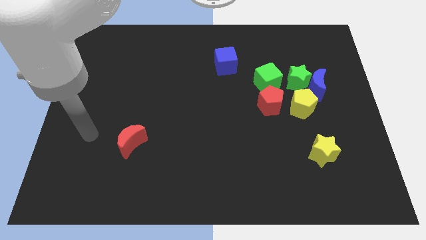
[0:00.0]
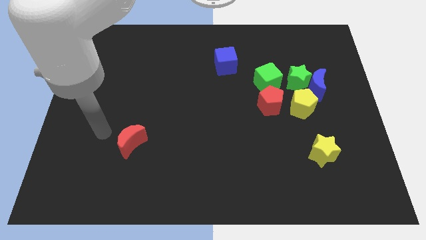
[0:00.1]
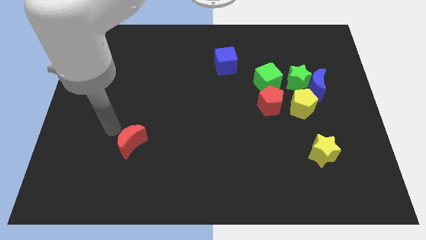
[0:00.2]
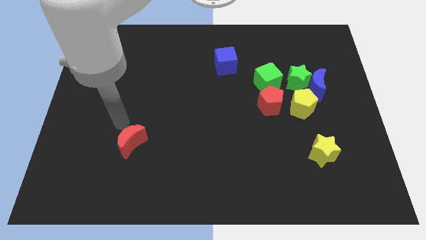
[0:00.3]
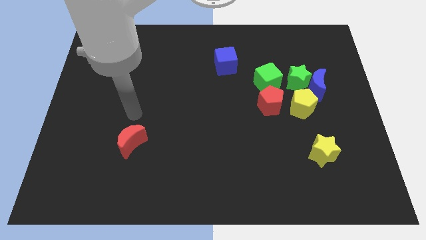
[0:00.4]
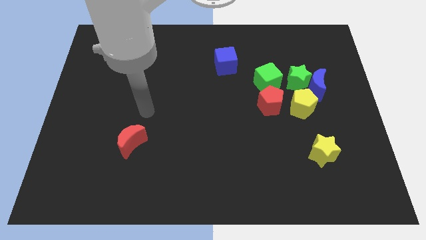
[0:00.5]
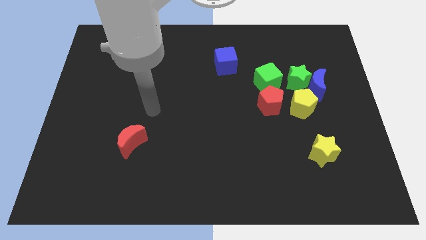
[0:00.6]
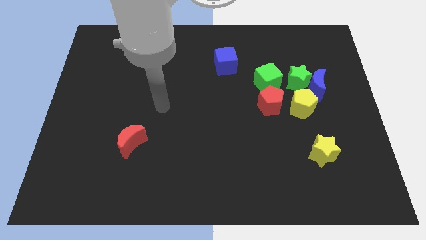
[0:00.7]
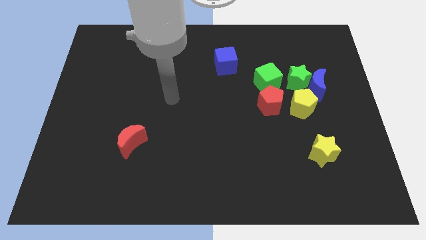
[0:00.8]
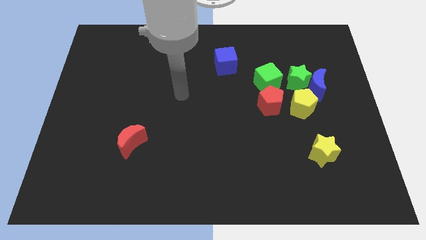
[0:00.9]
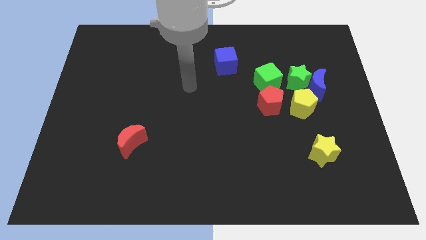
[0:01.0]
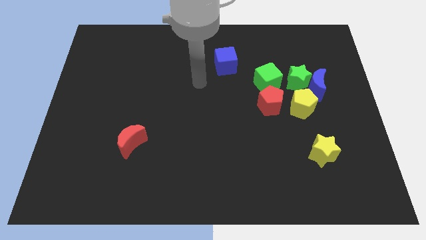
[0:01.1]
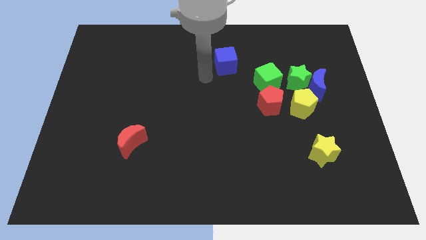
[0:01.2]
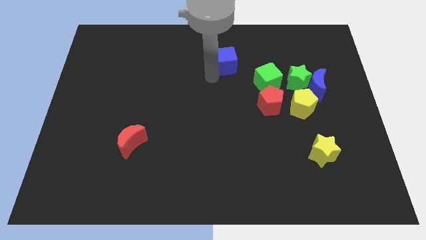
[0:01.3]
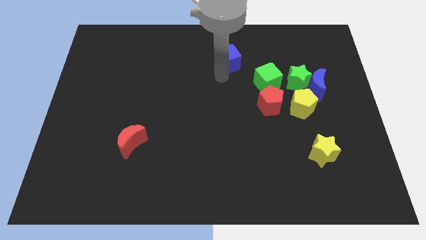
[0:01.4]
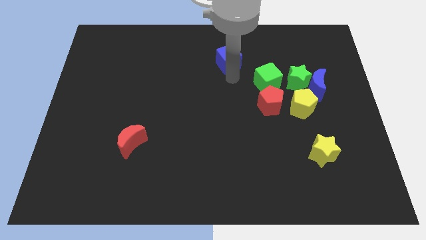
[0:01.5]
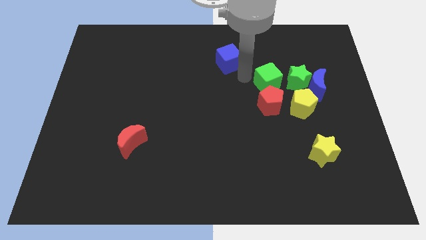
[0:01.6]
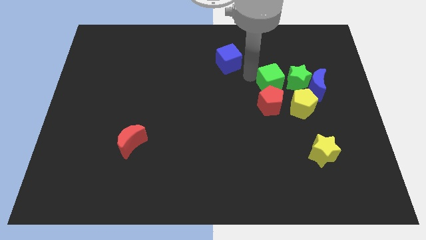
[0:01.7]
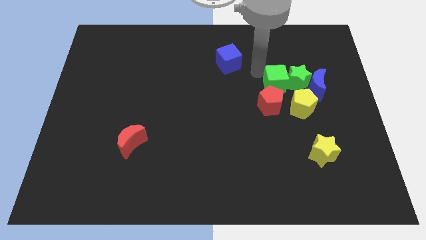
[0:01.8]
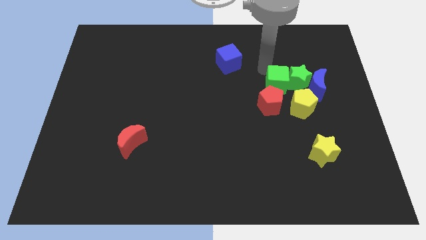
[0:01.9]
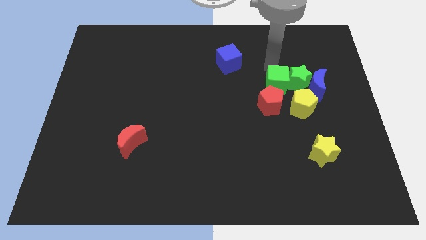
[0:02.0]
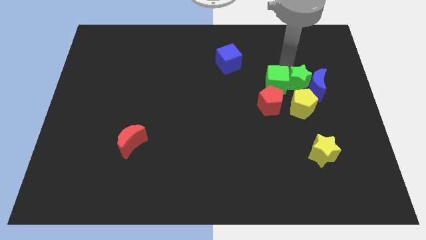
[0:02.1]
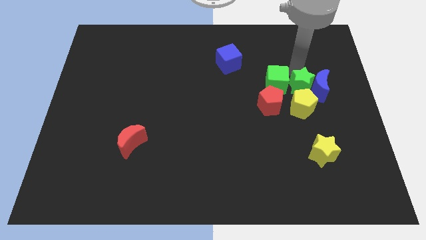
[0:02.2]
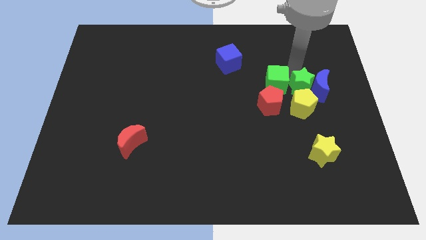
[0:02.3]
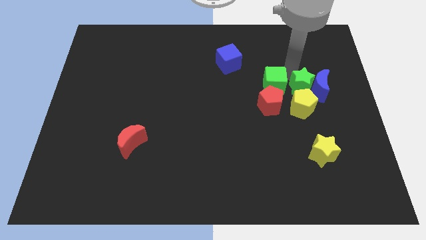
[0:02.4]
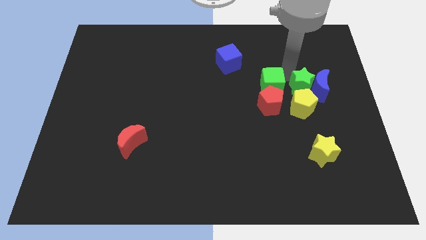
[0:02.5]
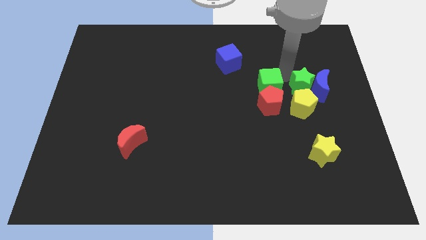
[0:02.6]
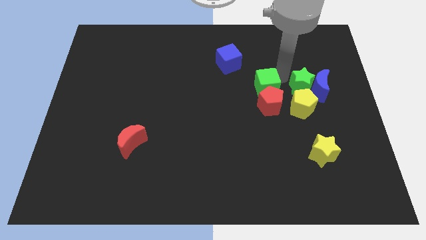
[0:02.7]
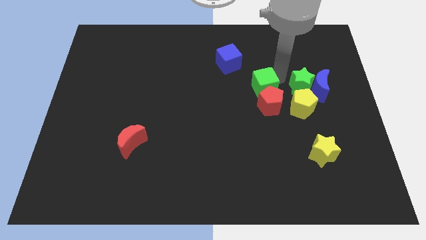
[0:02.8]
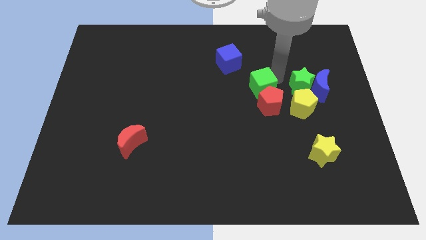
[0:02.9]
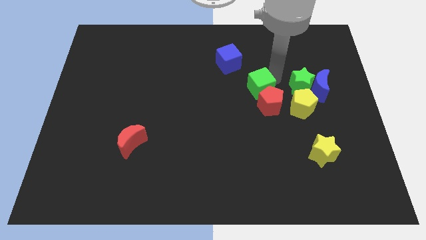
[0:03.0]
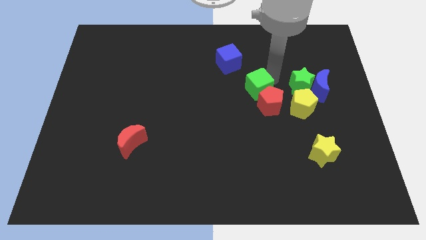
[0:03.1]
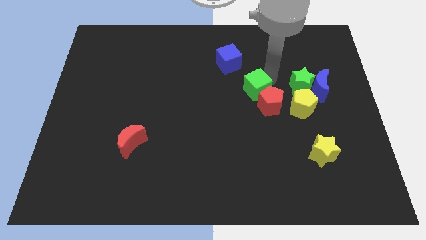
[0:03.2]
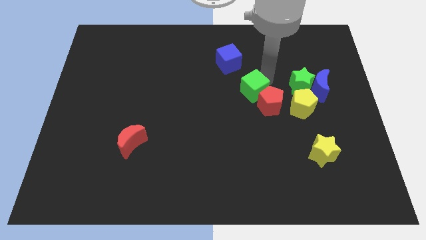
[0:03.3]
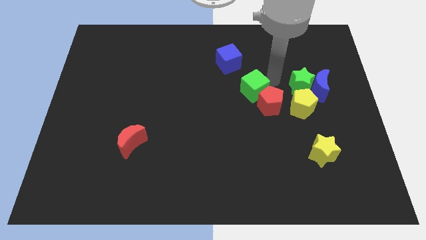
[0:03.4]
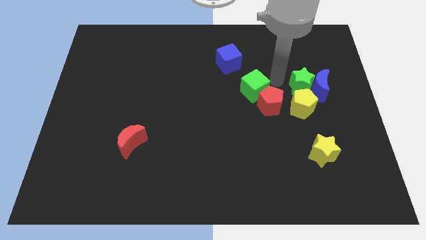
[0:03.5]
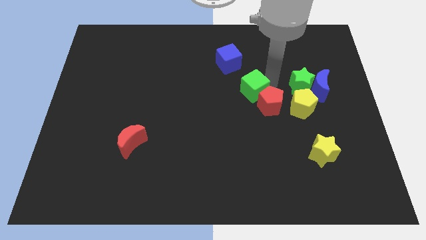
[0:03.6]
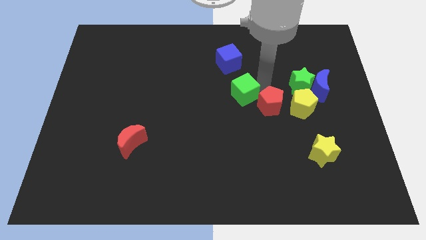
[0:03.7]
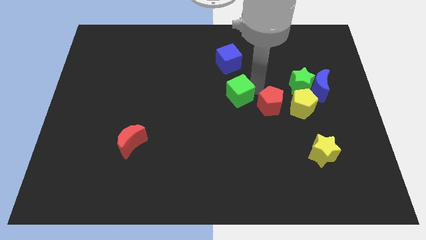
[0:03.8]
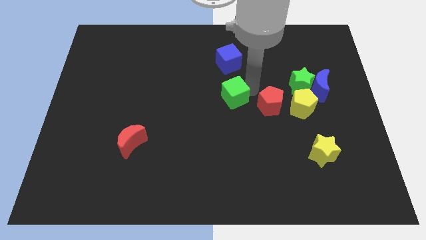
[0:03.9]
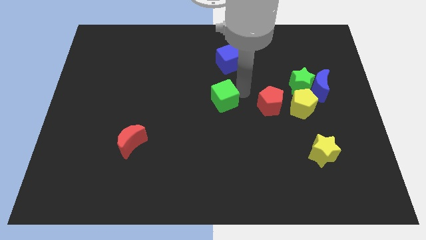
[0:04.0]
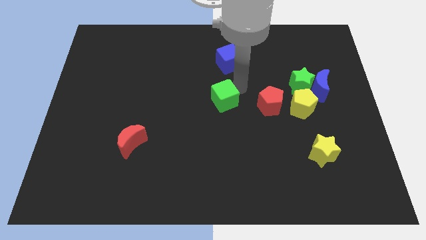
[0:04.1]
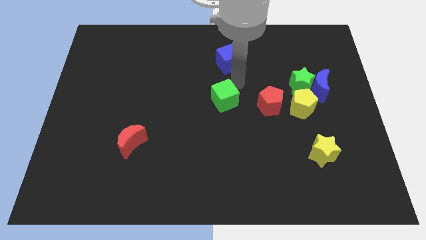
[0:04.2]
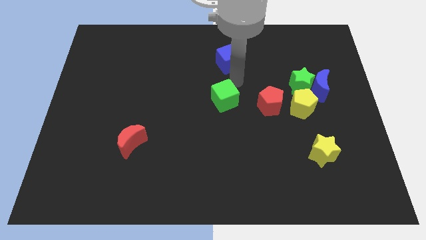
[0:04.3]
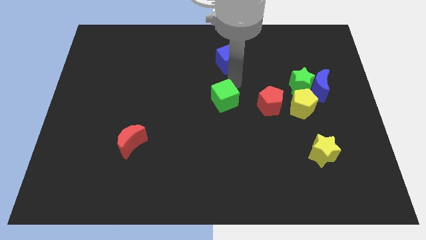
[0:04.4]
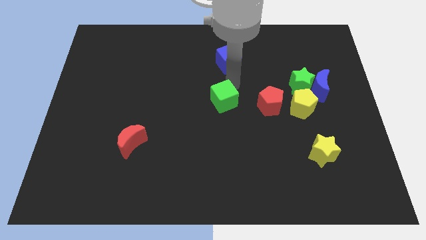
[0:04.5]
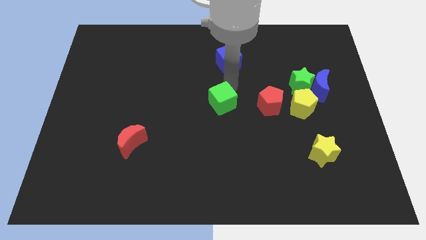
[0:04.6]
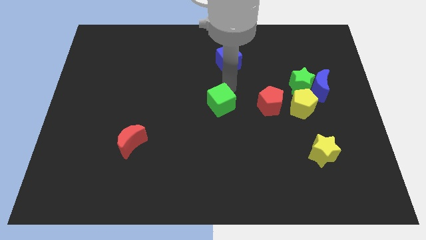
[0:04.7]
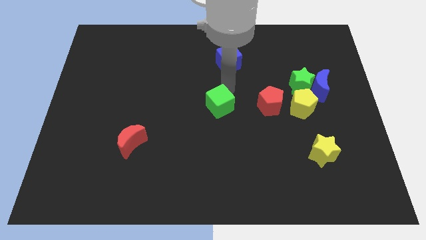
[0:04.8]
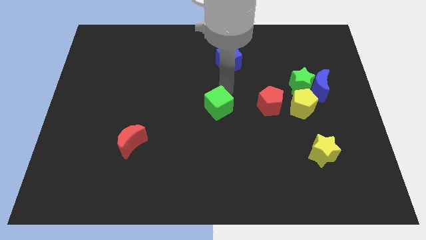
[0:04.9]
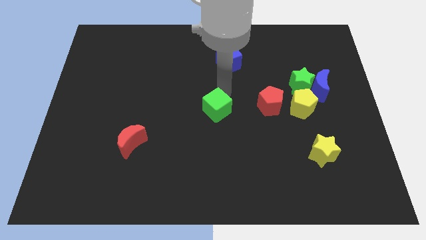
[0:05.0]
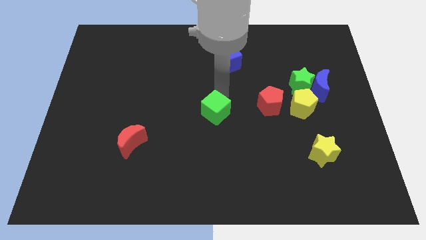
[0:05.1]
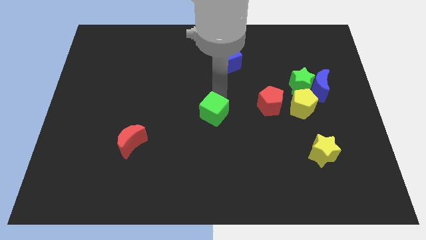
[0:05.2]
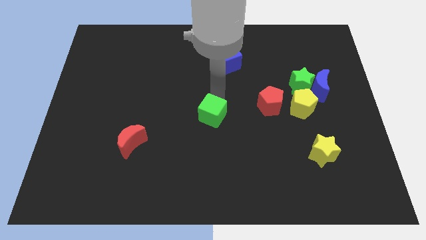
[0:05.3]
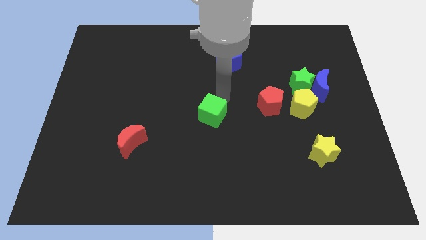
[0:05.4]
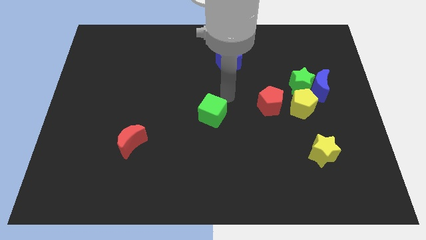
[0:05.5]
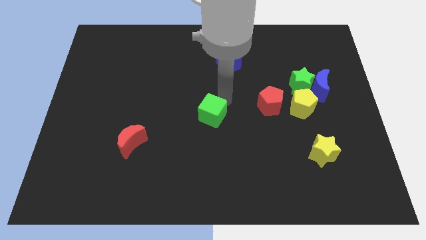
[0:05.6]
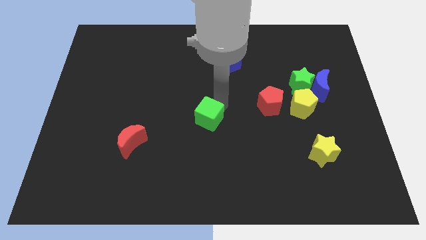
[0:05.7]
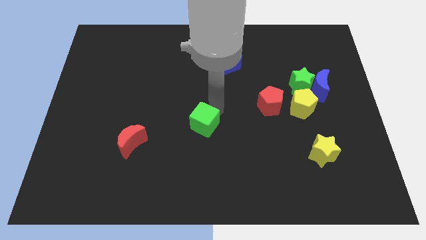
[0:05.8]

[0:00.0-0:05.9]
slide the green cube down and then to the left

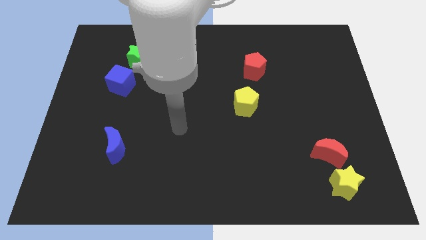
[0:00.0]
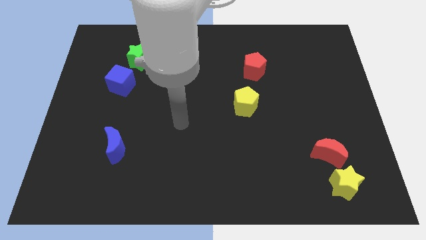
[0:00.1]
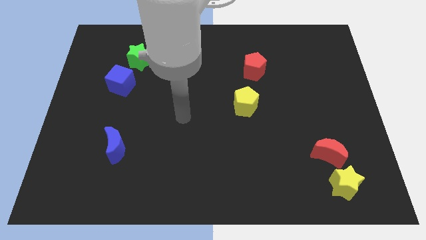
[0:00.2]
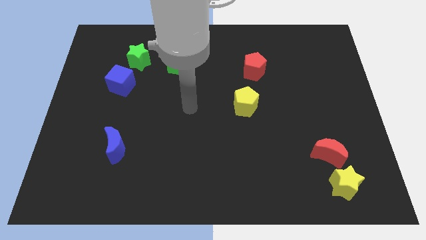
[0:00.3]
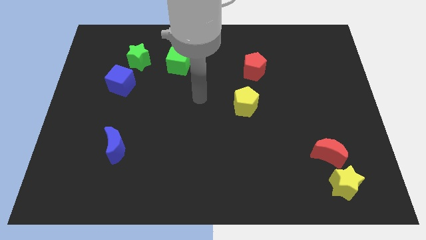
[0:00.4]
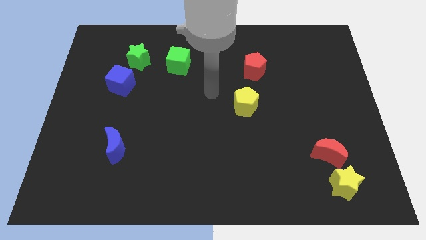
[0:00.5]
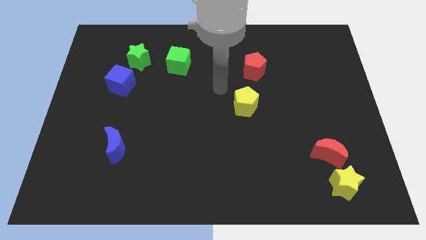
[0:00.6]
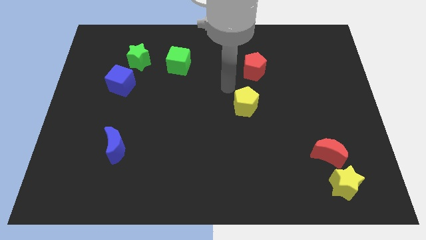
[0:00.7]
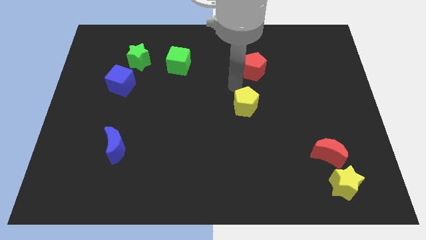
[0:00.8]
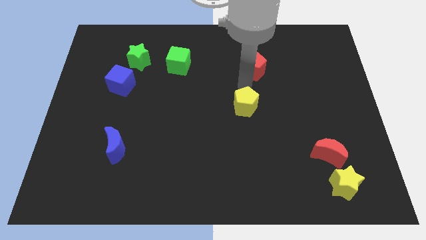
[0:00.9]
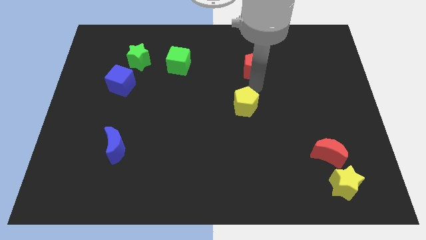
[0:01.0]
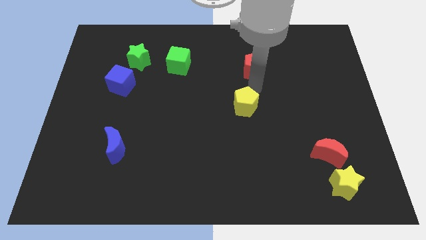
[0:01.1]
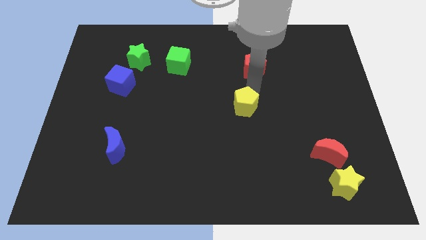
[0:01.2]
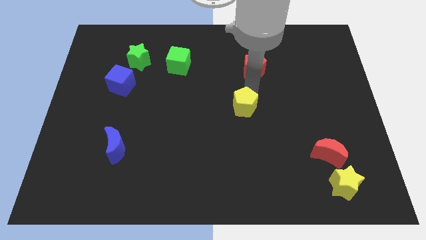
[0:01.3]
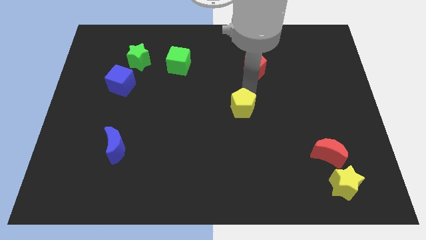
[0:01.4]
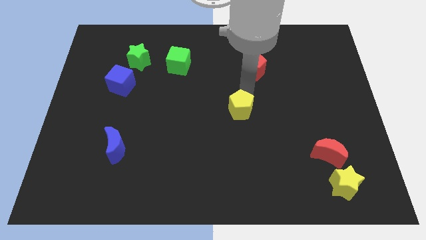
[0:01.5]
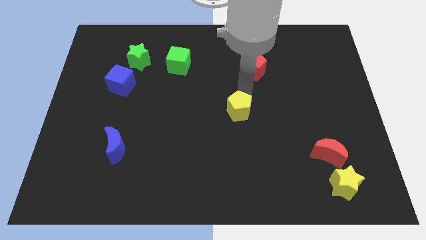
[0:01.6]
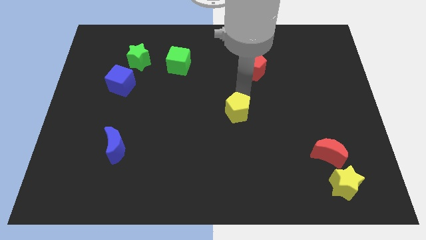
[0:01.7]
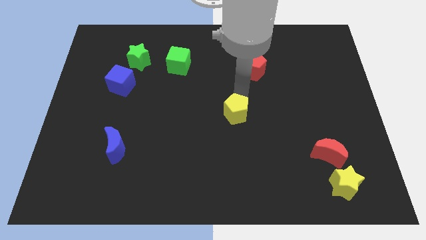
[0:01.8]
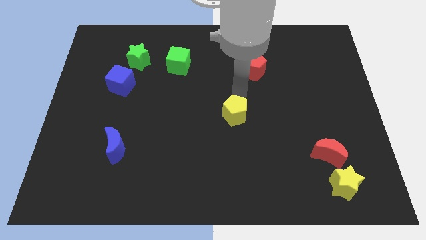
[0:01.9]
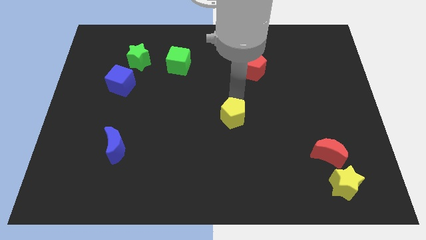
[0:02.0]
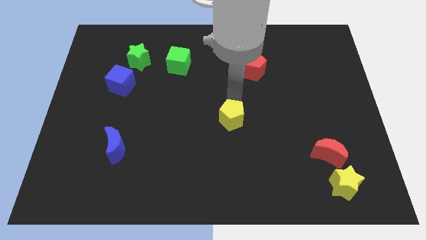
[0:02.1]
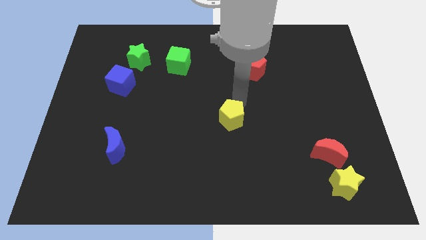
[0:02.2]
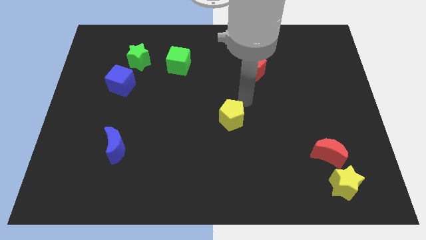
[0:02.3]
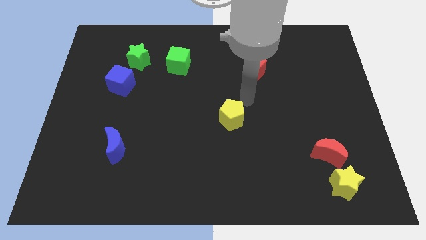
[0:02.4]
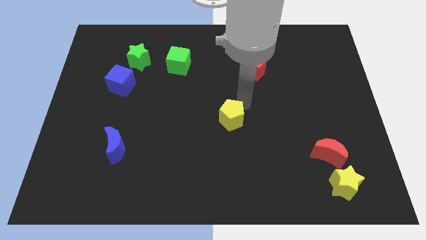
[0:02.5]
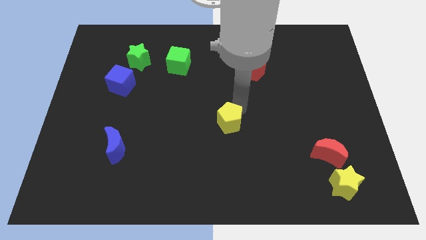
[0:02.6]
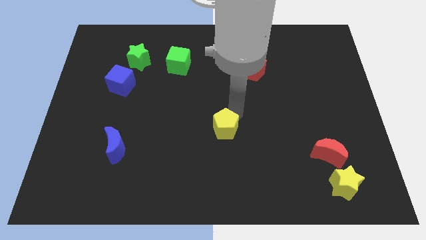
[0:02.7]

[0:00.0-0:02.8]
slightly slide the yellow pentagon diagonally downwards and to the left
